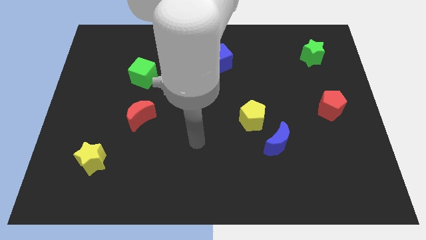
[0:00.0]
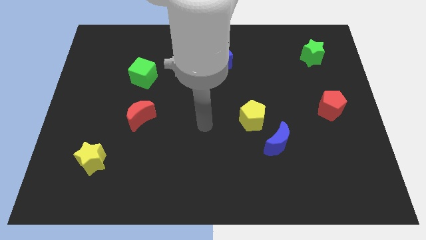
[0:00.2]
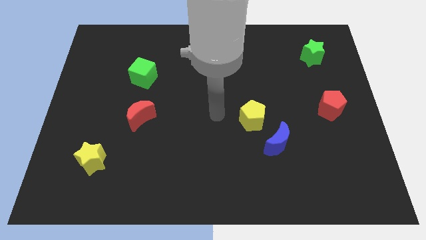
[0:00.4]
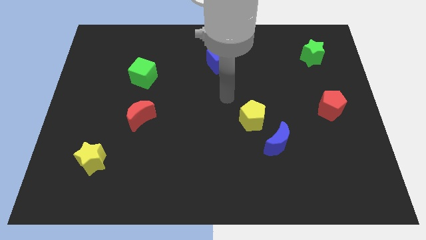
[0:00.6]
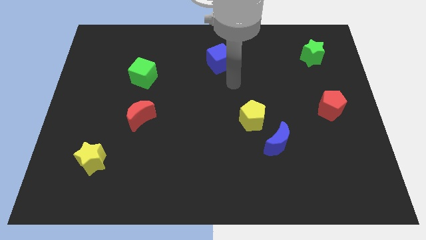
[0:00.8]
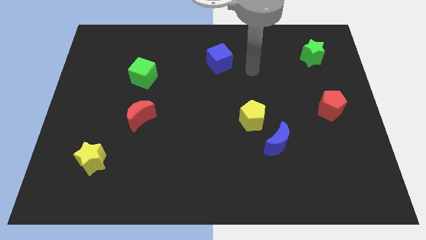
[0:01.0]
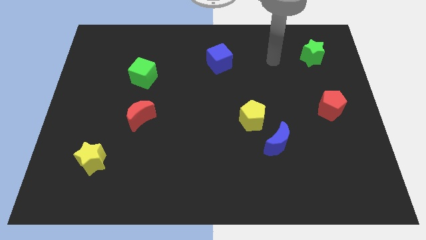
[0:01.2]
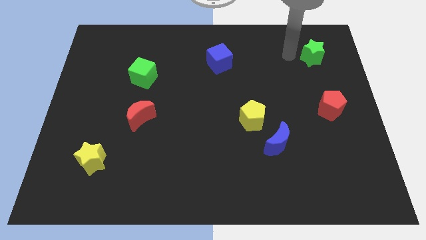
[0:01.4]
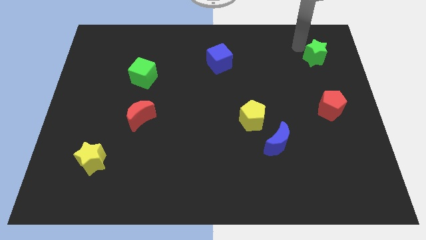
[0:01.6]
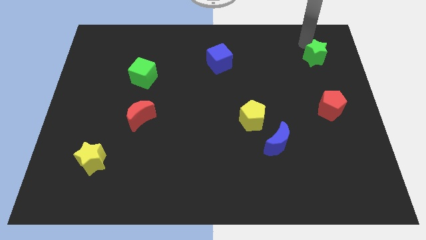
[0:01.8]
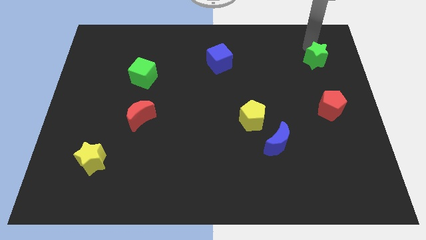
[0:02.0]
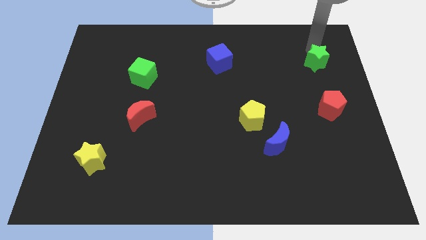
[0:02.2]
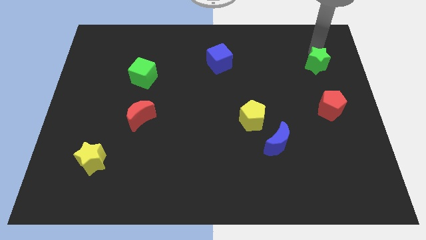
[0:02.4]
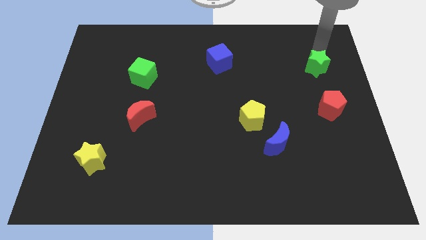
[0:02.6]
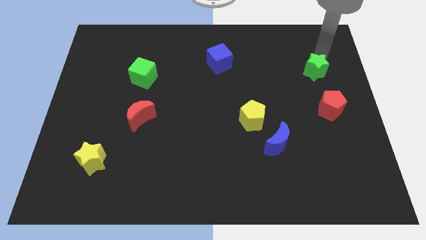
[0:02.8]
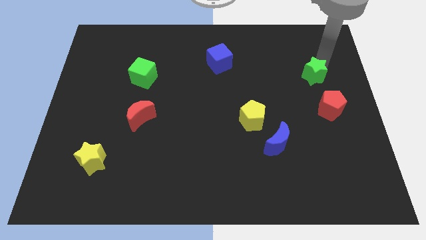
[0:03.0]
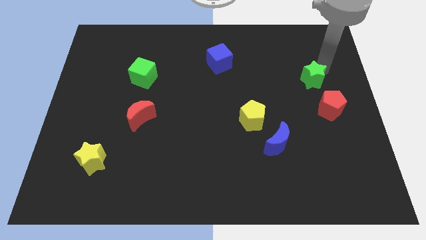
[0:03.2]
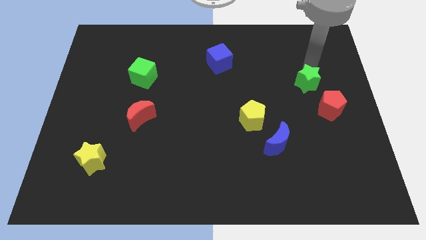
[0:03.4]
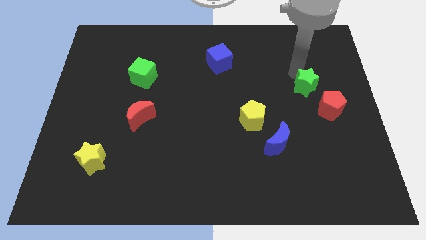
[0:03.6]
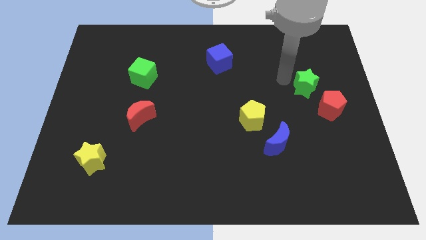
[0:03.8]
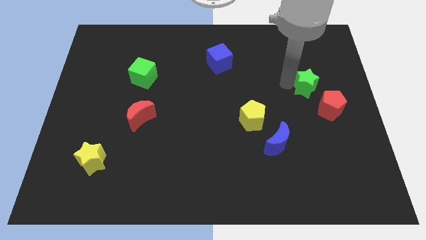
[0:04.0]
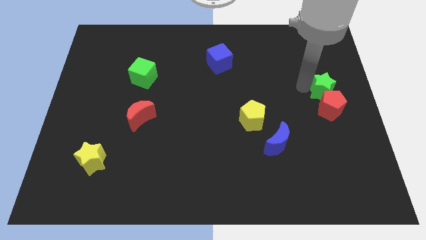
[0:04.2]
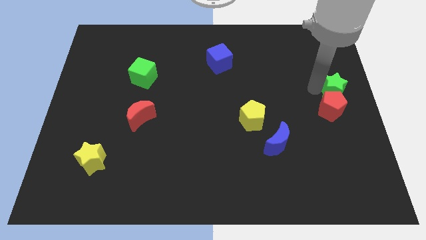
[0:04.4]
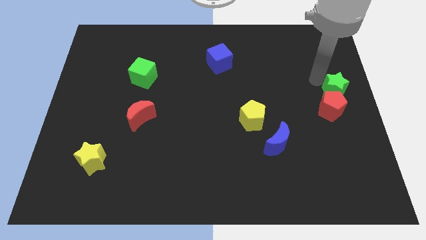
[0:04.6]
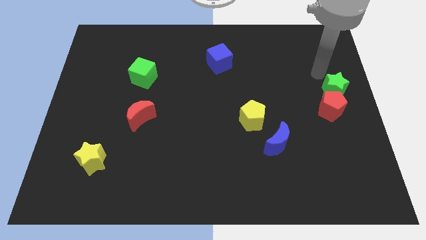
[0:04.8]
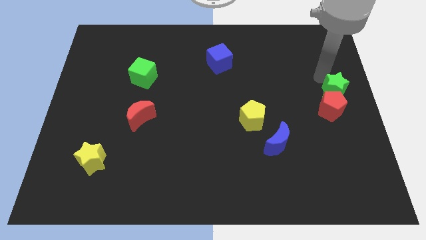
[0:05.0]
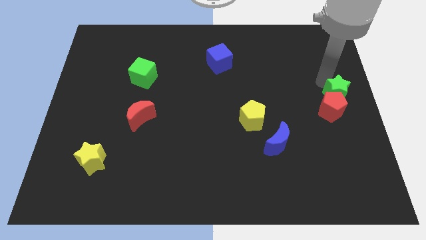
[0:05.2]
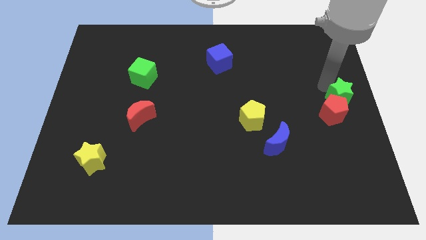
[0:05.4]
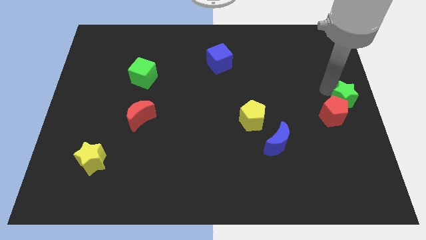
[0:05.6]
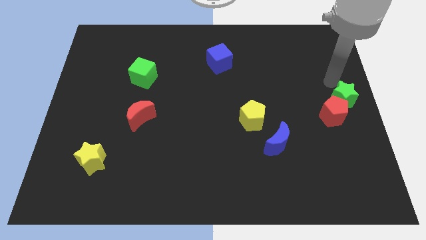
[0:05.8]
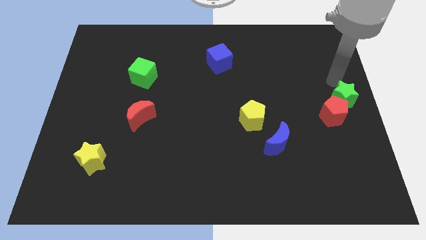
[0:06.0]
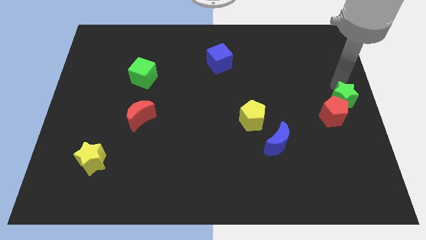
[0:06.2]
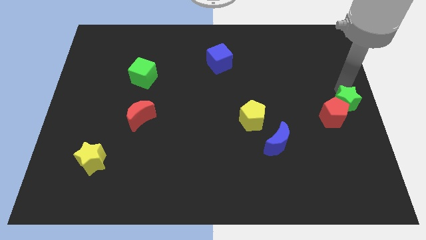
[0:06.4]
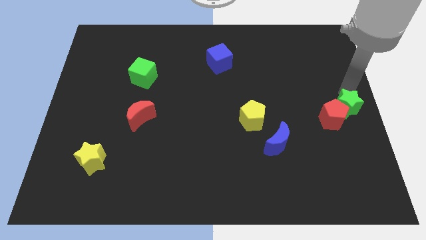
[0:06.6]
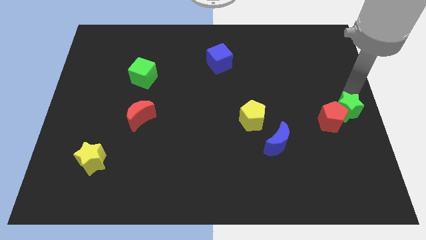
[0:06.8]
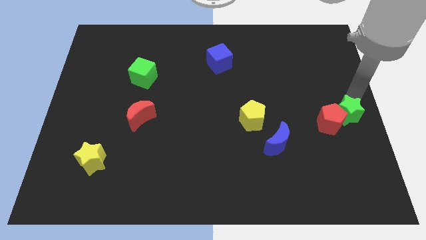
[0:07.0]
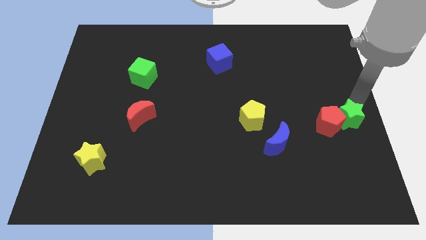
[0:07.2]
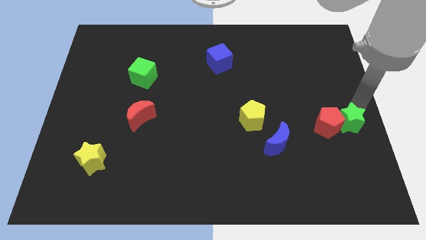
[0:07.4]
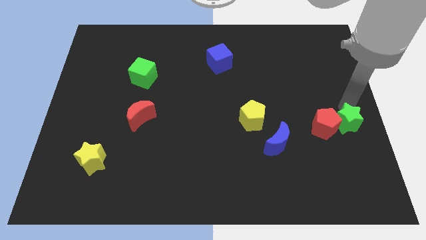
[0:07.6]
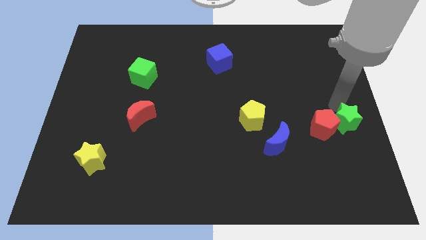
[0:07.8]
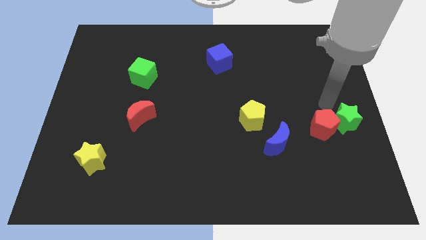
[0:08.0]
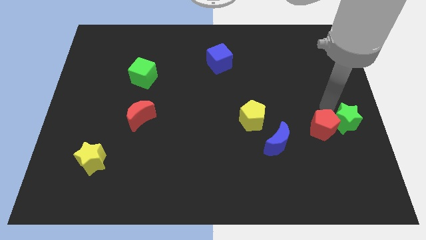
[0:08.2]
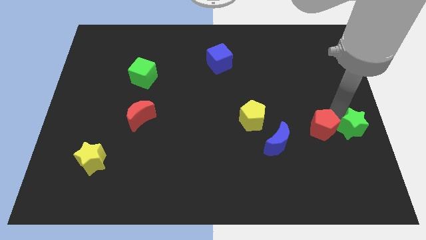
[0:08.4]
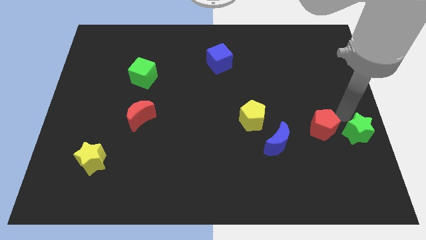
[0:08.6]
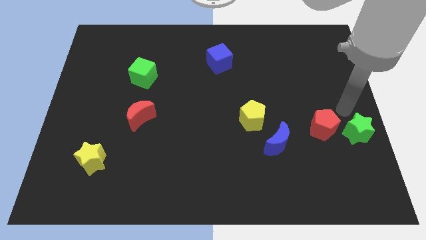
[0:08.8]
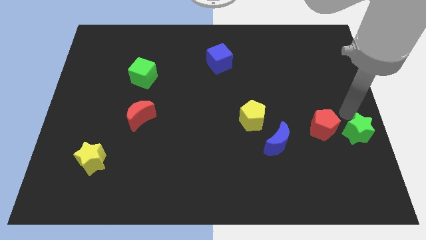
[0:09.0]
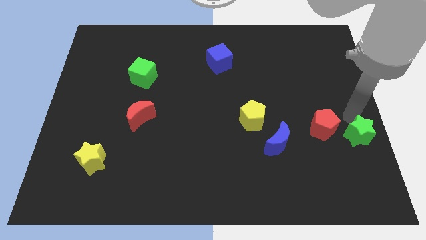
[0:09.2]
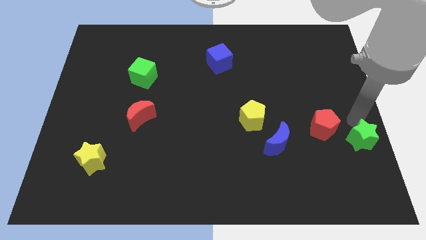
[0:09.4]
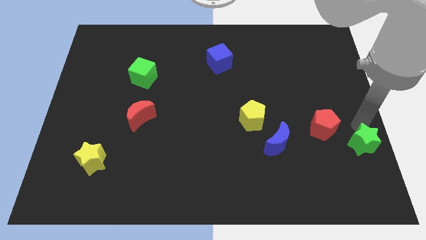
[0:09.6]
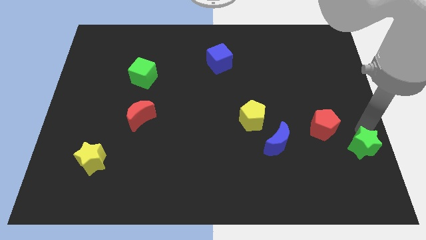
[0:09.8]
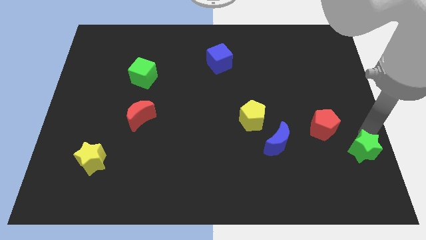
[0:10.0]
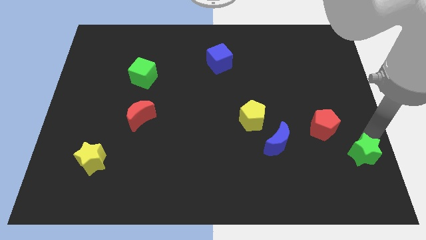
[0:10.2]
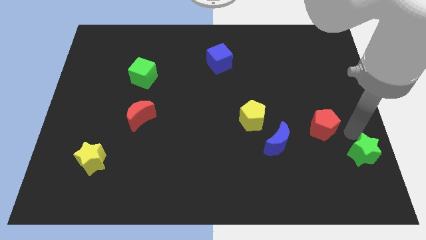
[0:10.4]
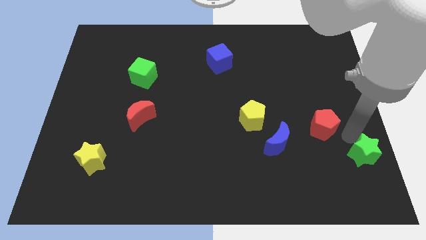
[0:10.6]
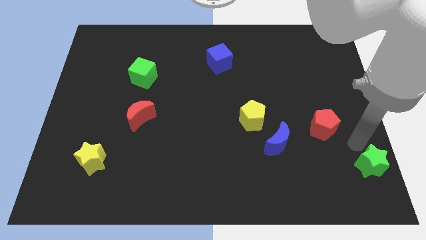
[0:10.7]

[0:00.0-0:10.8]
move the green star to the bottom right
